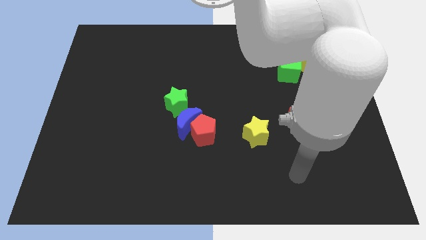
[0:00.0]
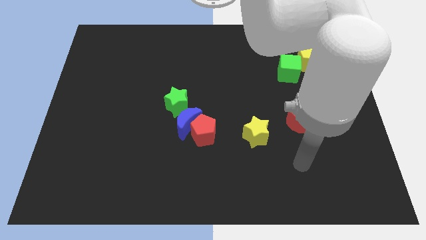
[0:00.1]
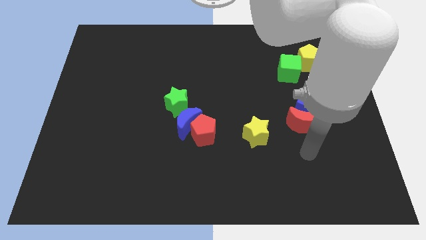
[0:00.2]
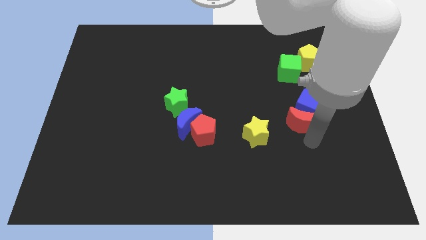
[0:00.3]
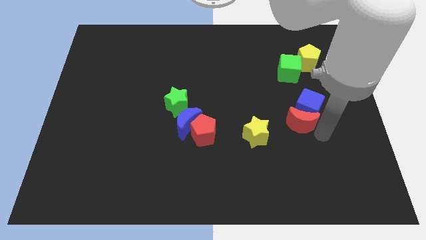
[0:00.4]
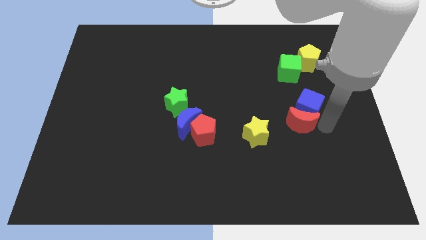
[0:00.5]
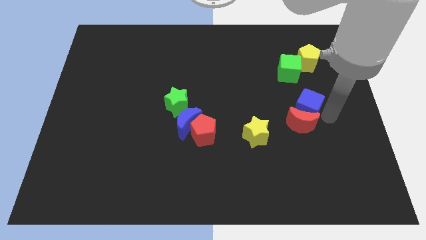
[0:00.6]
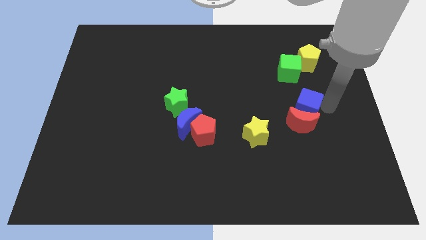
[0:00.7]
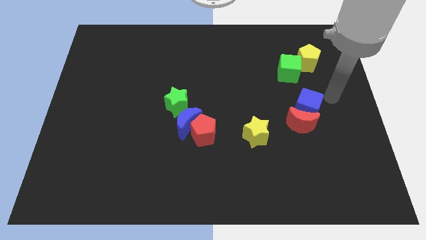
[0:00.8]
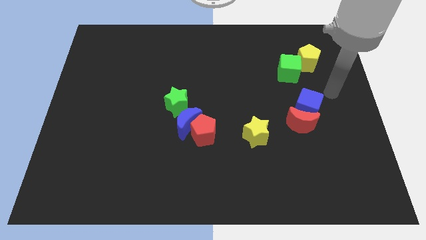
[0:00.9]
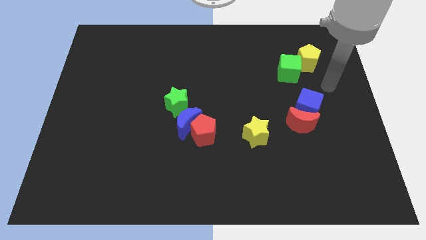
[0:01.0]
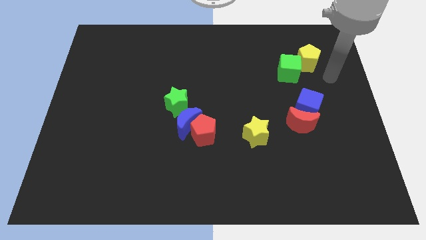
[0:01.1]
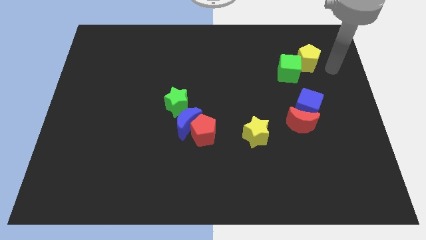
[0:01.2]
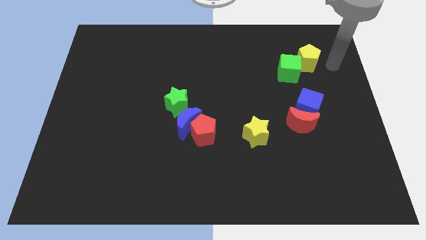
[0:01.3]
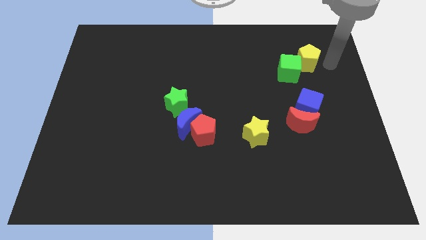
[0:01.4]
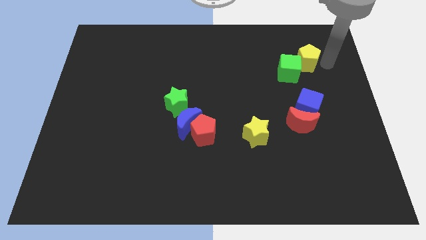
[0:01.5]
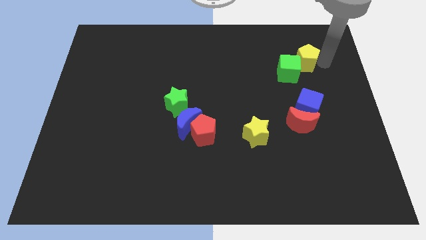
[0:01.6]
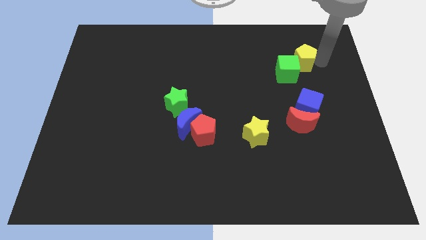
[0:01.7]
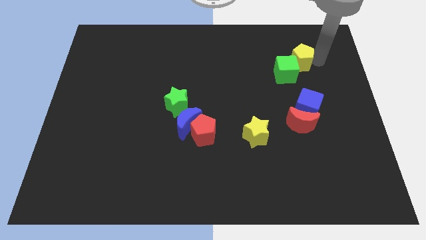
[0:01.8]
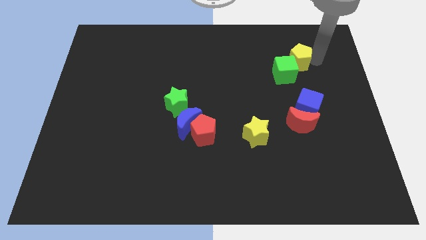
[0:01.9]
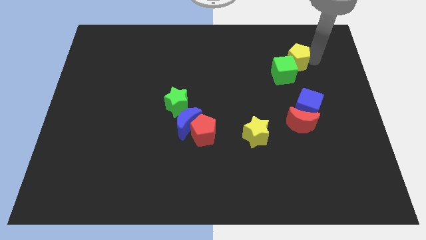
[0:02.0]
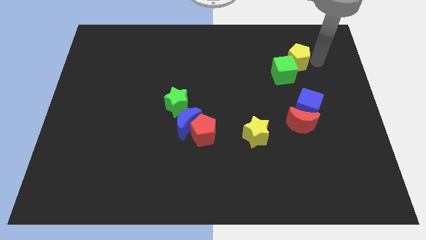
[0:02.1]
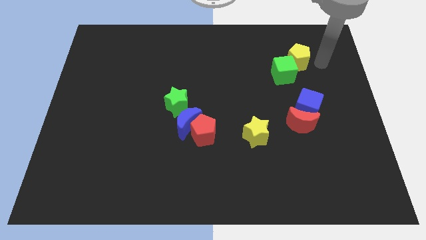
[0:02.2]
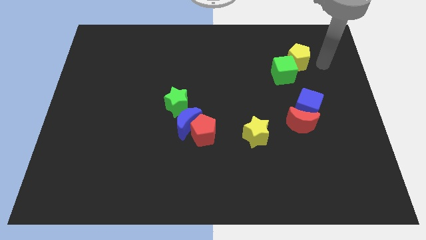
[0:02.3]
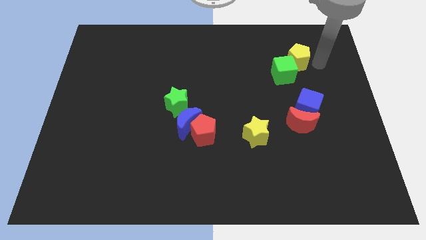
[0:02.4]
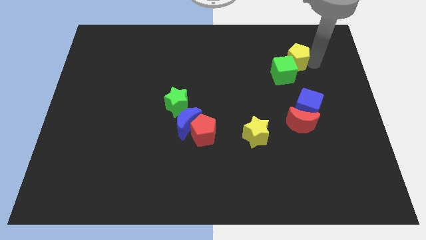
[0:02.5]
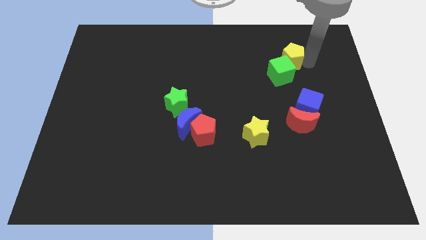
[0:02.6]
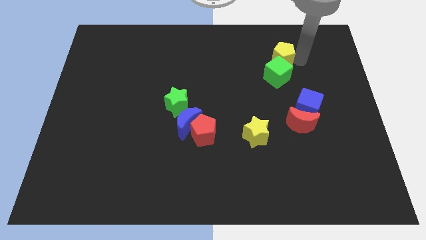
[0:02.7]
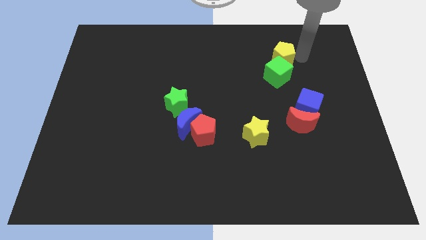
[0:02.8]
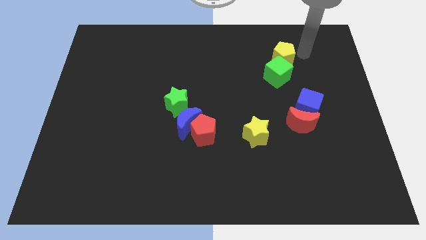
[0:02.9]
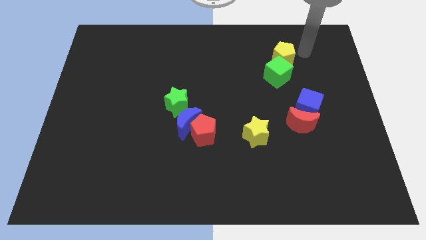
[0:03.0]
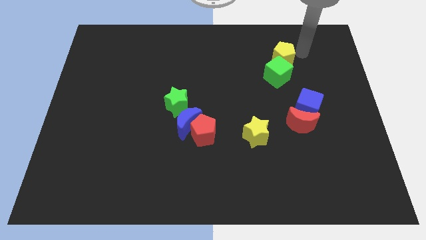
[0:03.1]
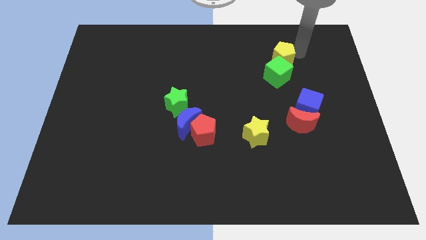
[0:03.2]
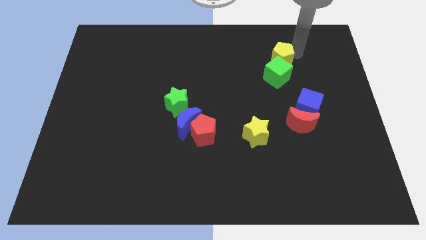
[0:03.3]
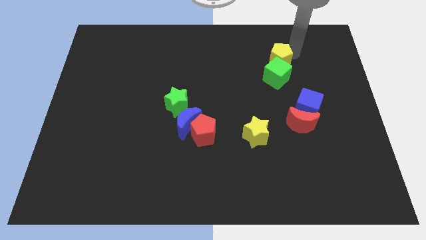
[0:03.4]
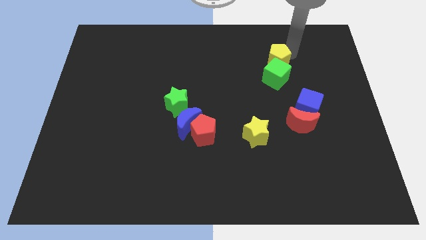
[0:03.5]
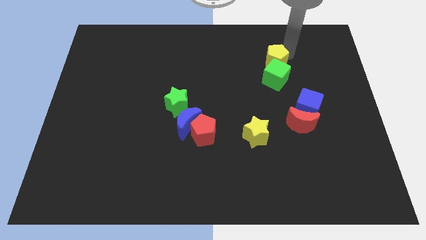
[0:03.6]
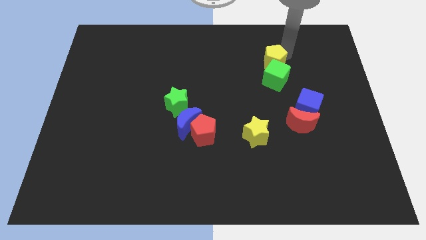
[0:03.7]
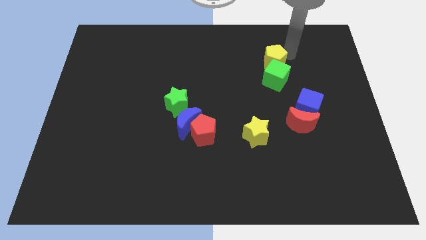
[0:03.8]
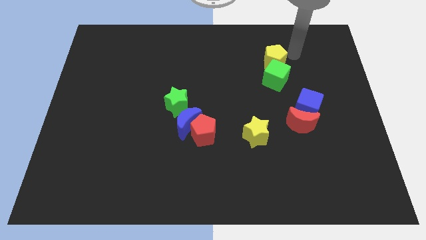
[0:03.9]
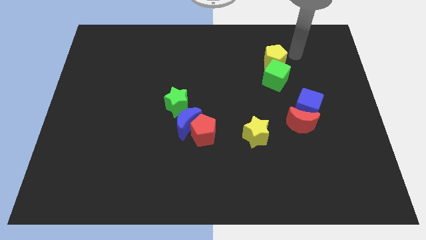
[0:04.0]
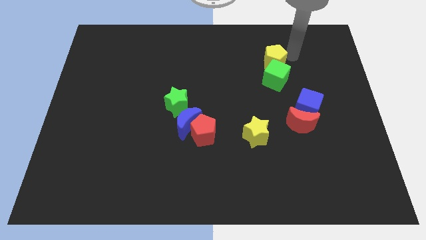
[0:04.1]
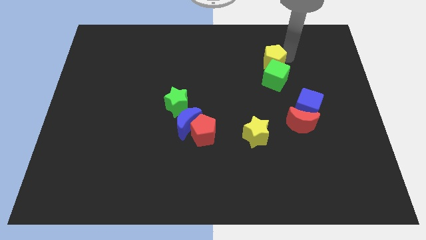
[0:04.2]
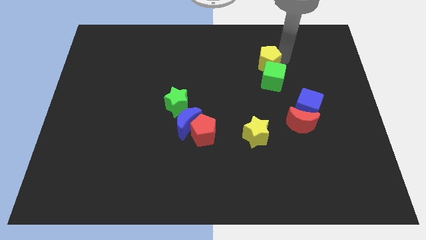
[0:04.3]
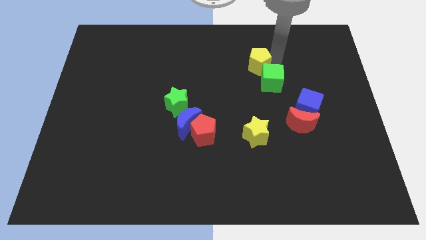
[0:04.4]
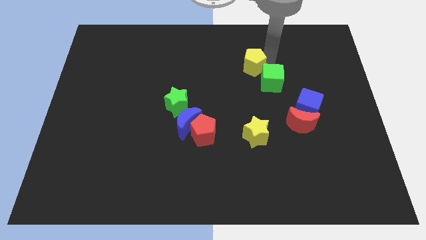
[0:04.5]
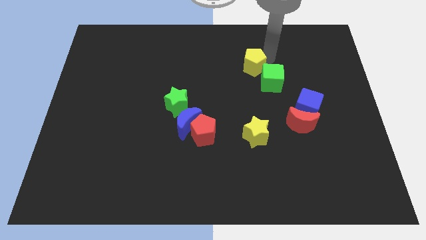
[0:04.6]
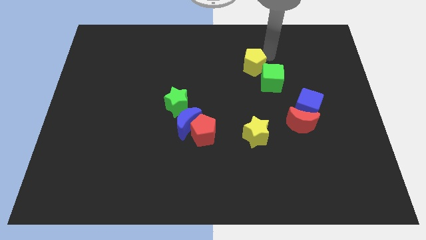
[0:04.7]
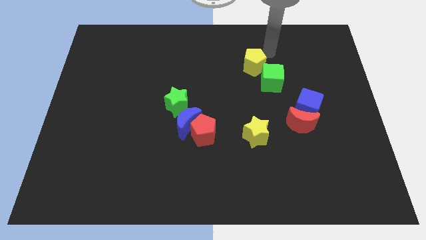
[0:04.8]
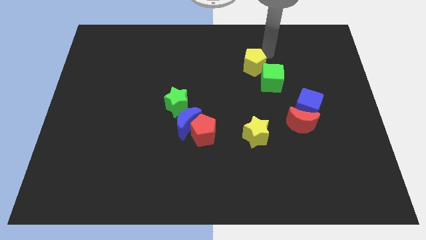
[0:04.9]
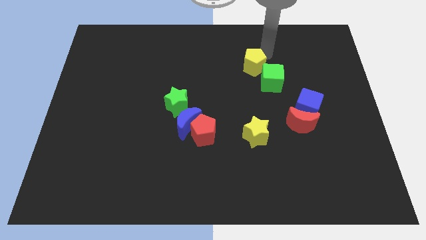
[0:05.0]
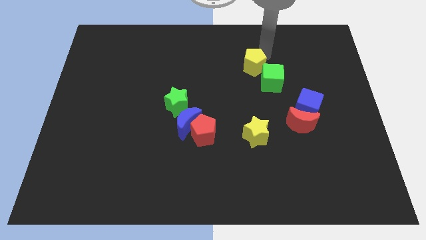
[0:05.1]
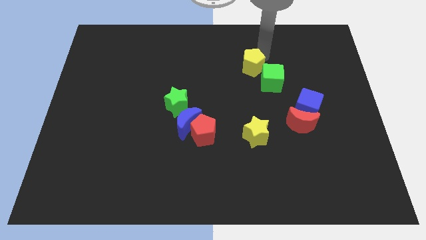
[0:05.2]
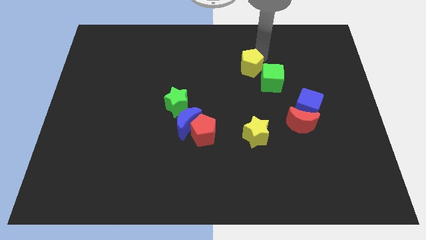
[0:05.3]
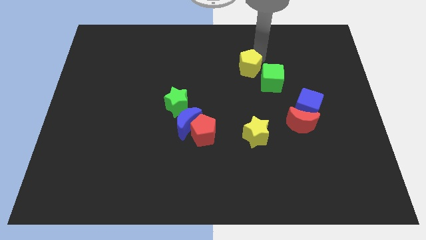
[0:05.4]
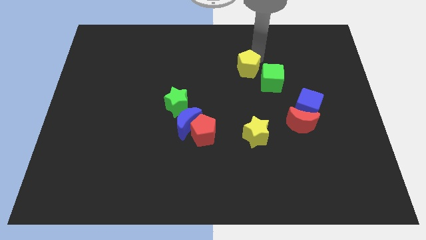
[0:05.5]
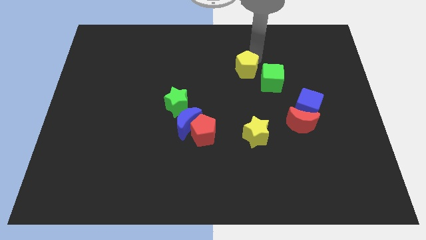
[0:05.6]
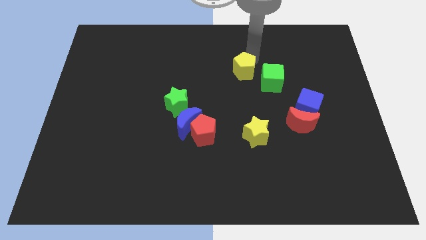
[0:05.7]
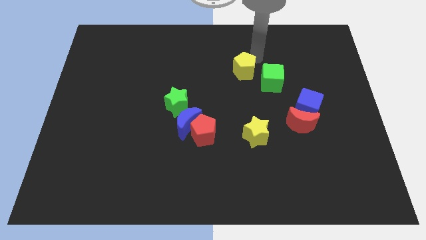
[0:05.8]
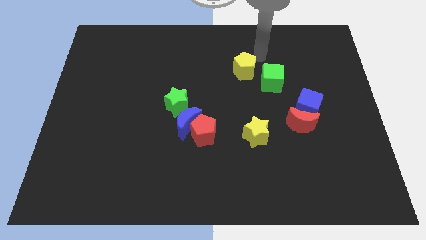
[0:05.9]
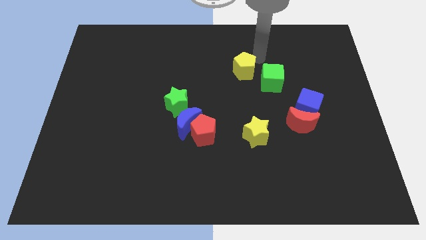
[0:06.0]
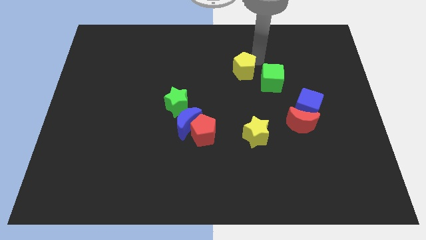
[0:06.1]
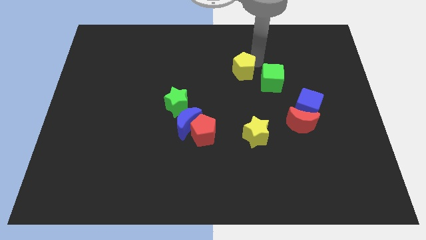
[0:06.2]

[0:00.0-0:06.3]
move the yellow pentagon to the center

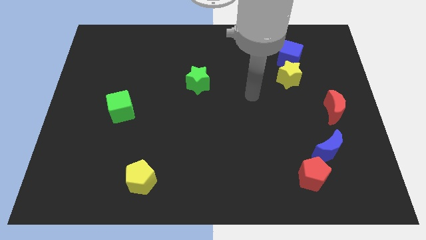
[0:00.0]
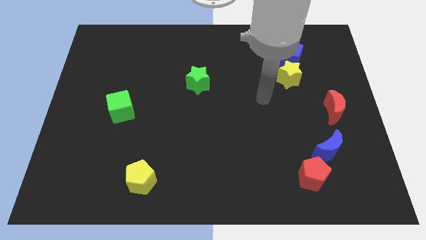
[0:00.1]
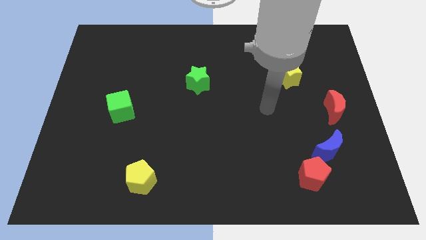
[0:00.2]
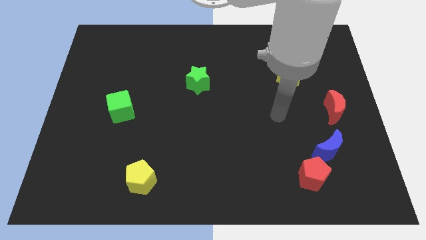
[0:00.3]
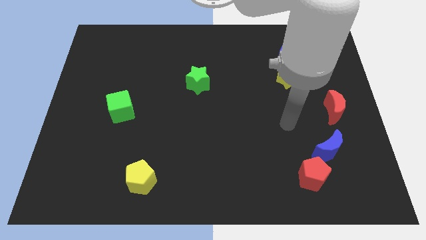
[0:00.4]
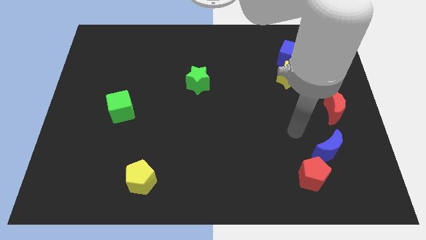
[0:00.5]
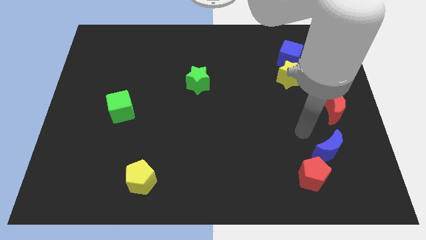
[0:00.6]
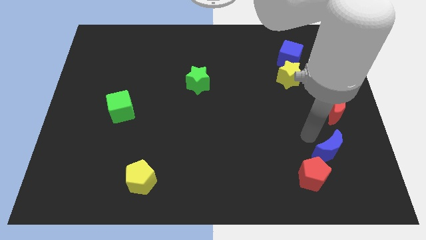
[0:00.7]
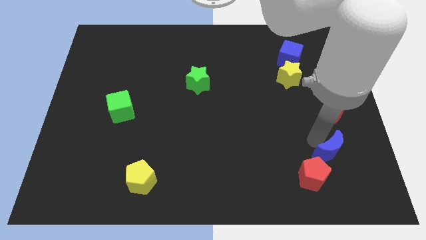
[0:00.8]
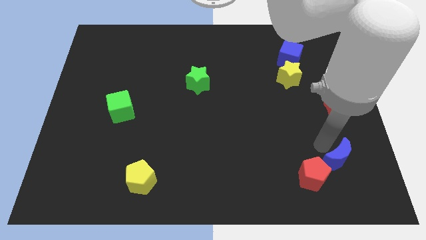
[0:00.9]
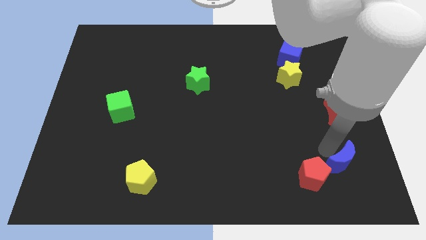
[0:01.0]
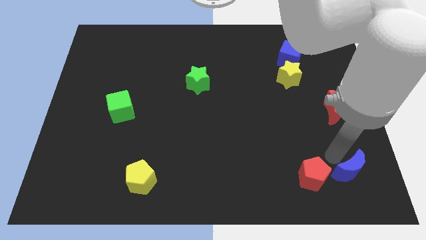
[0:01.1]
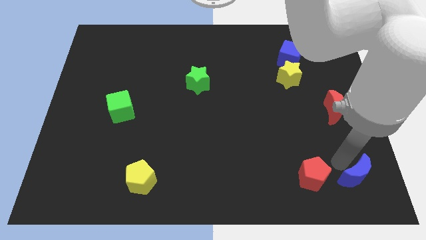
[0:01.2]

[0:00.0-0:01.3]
move the blue moon to the bottom right of the board
